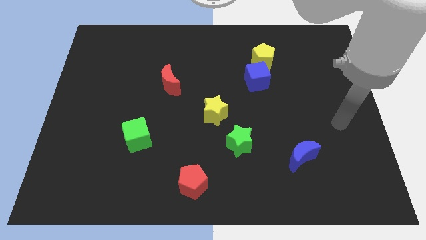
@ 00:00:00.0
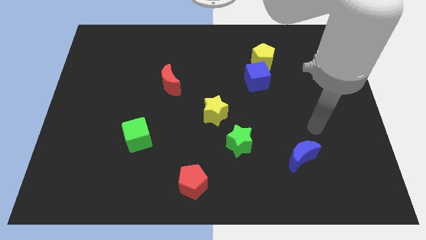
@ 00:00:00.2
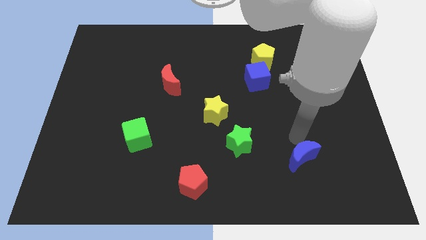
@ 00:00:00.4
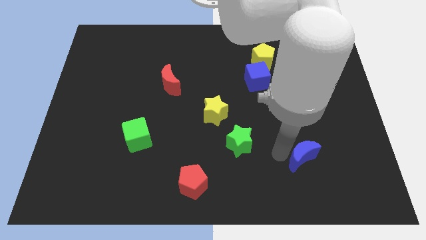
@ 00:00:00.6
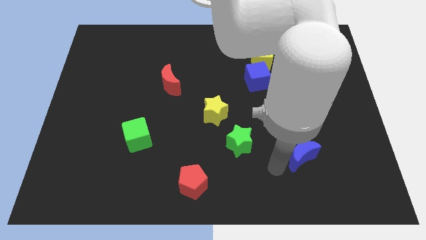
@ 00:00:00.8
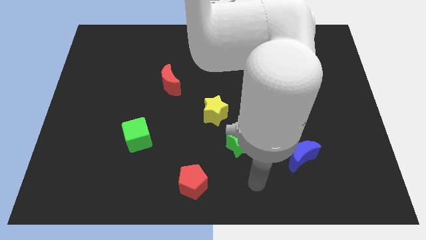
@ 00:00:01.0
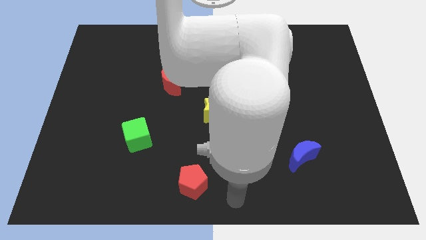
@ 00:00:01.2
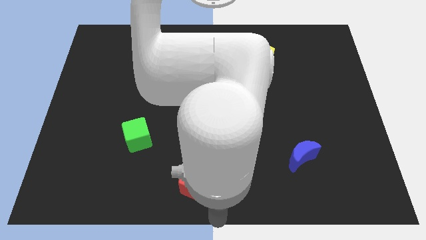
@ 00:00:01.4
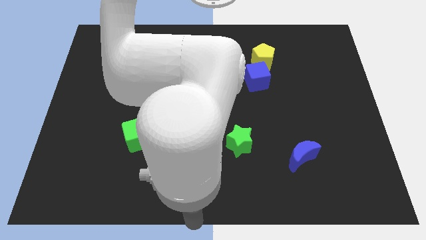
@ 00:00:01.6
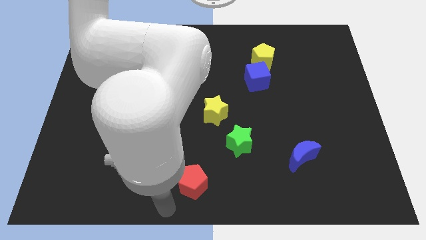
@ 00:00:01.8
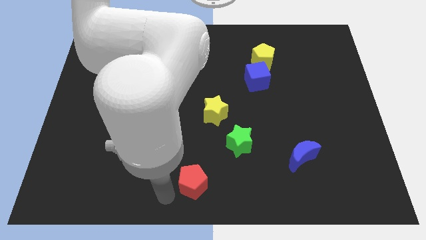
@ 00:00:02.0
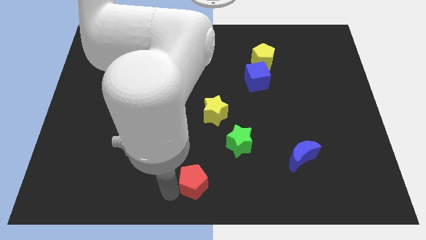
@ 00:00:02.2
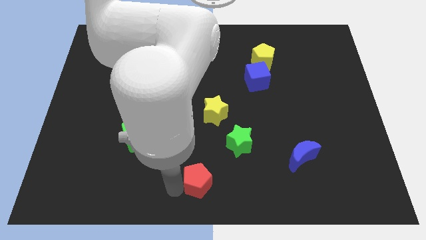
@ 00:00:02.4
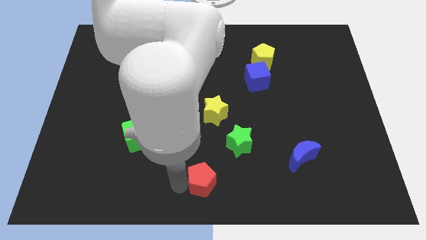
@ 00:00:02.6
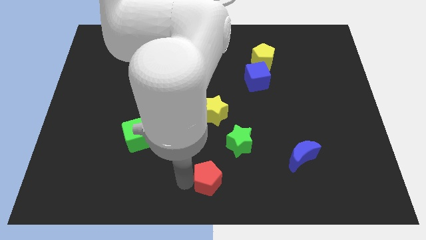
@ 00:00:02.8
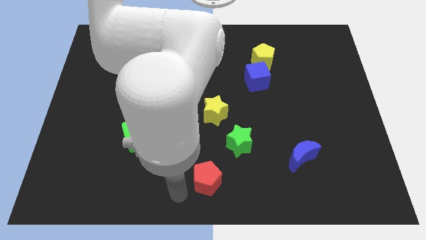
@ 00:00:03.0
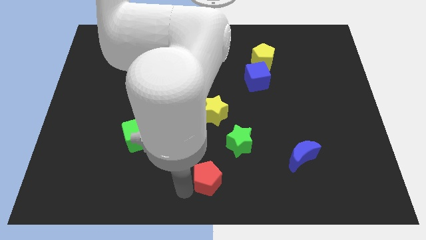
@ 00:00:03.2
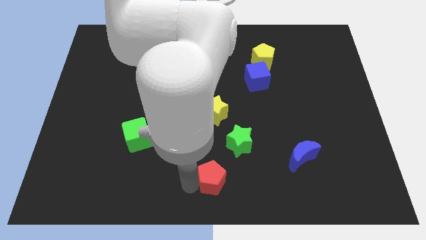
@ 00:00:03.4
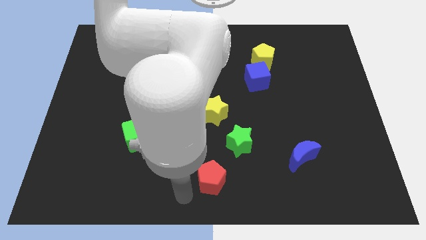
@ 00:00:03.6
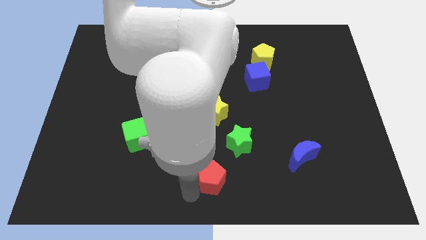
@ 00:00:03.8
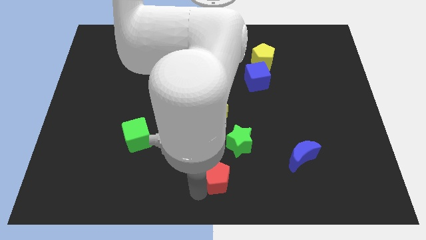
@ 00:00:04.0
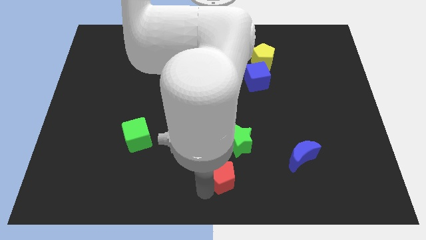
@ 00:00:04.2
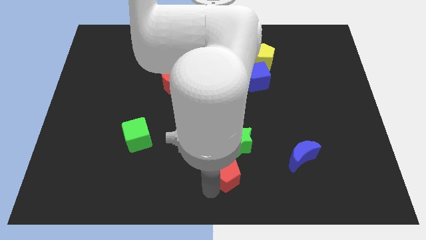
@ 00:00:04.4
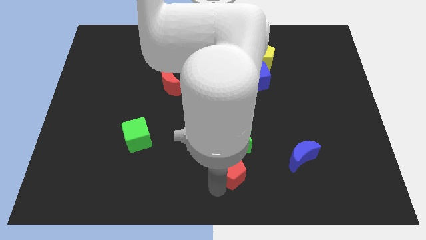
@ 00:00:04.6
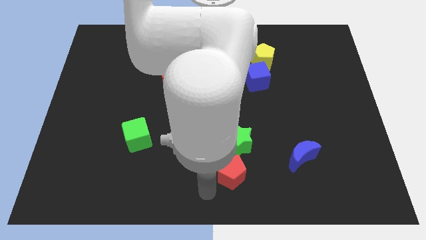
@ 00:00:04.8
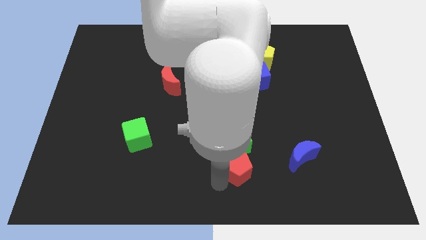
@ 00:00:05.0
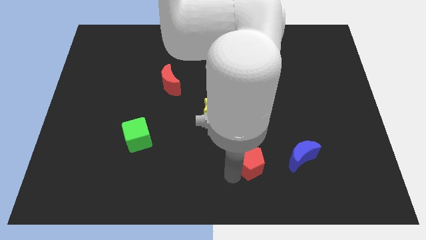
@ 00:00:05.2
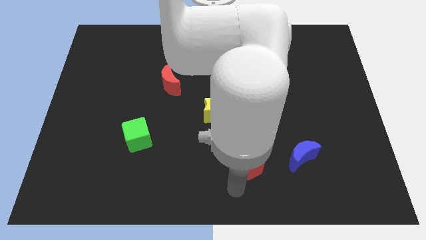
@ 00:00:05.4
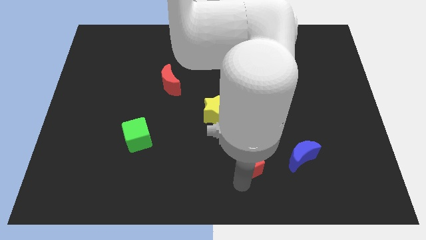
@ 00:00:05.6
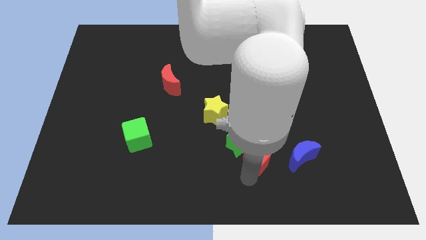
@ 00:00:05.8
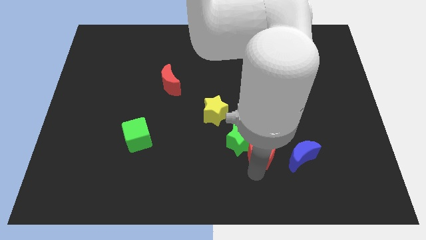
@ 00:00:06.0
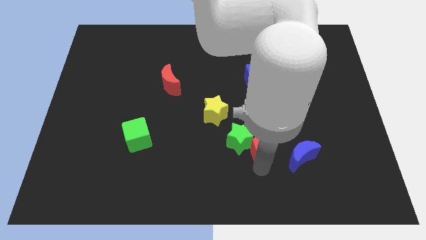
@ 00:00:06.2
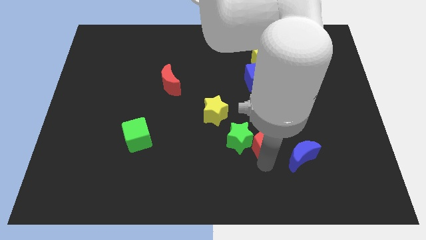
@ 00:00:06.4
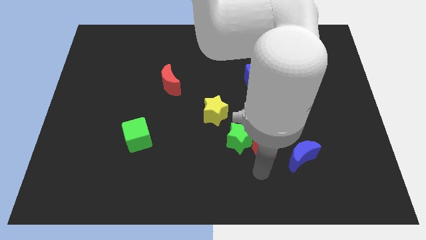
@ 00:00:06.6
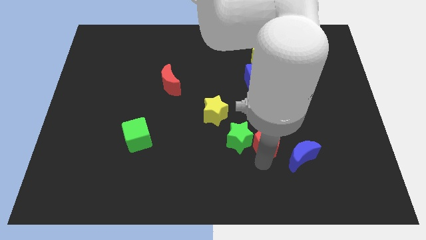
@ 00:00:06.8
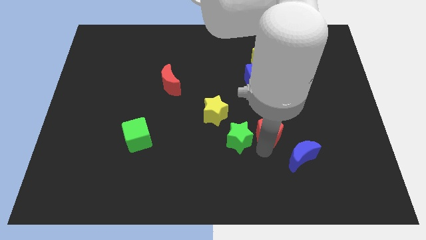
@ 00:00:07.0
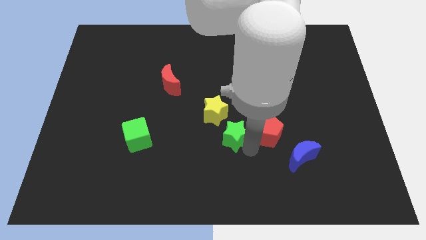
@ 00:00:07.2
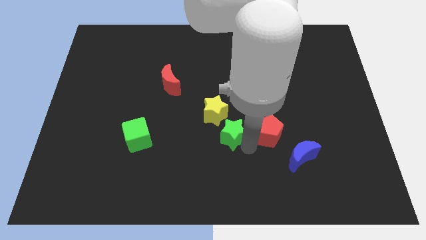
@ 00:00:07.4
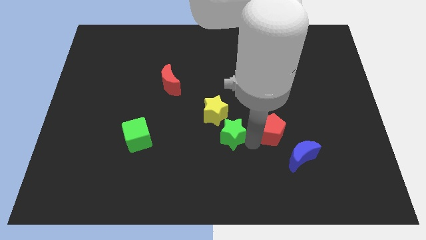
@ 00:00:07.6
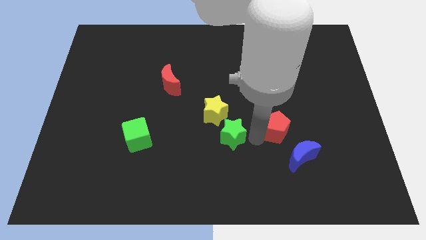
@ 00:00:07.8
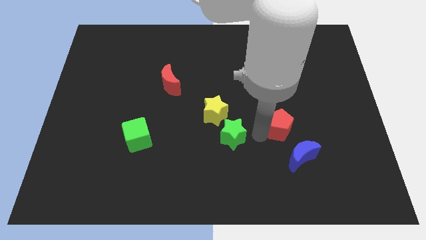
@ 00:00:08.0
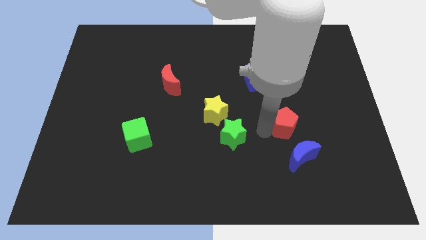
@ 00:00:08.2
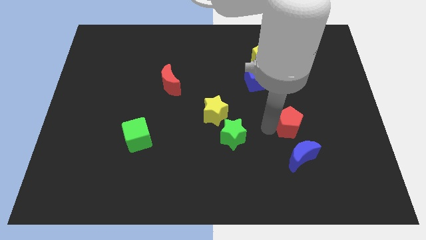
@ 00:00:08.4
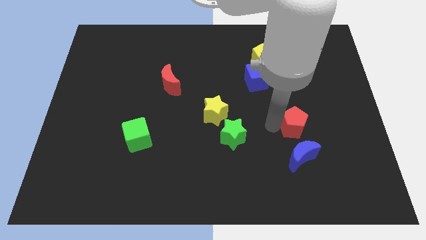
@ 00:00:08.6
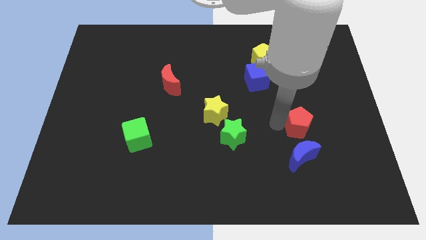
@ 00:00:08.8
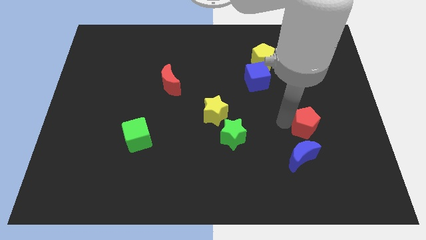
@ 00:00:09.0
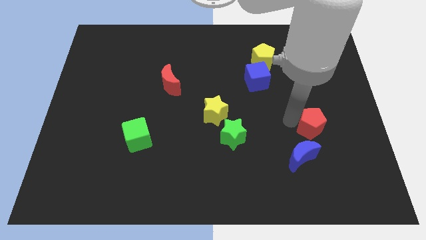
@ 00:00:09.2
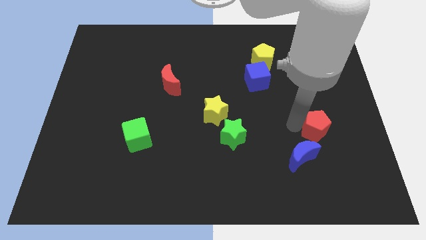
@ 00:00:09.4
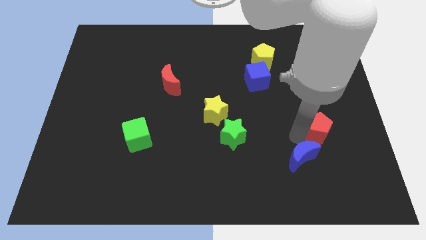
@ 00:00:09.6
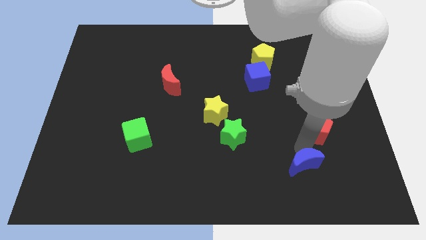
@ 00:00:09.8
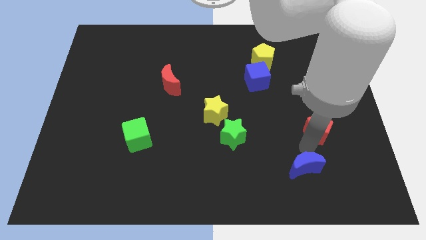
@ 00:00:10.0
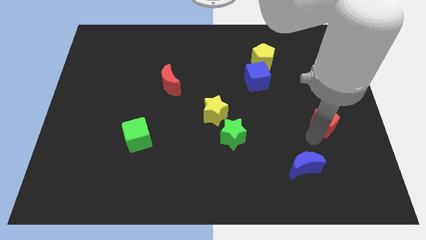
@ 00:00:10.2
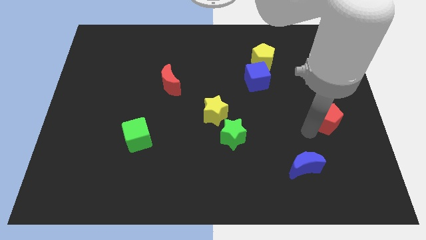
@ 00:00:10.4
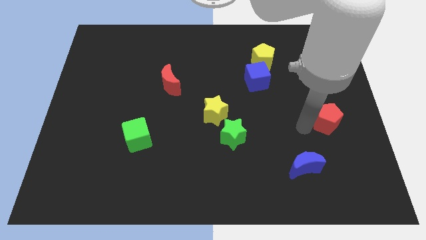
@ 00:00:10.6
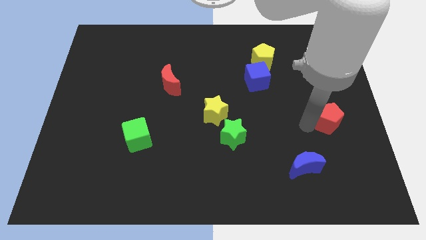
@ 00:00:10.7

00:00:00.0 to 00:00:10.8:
push the red pentagon to the right side
